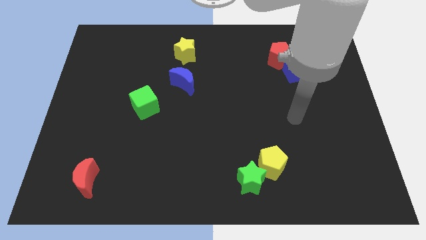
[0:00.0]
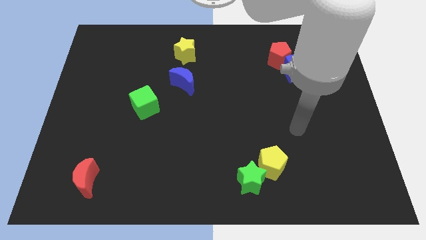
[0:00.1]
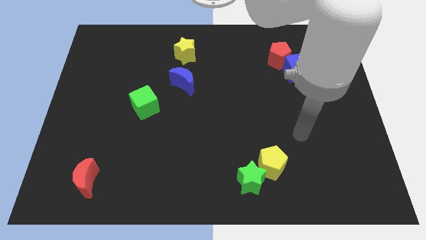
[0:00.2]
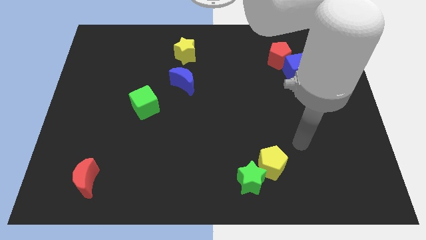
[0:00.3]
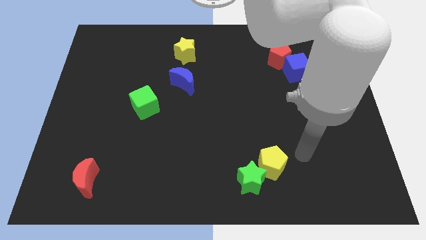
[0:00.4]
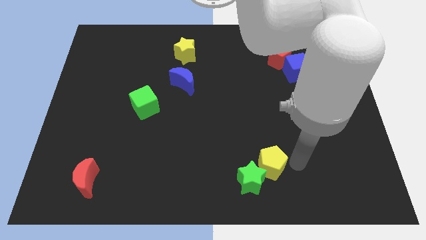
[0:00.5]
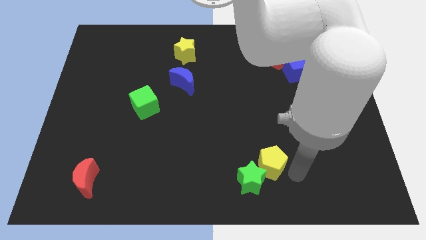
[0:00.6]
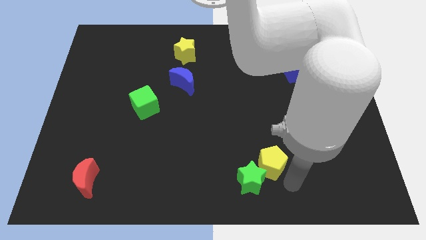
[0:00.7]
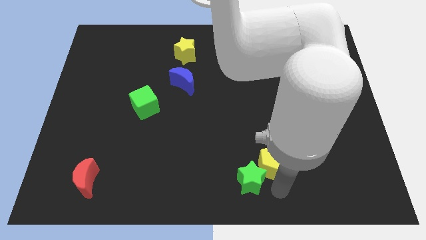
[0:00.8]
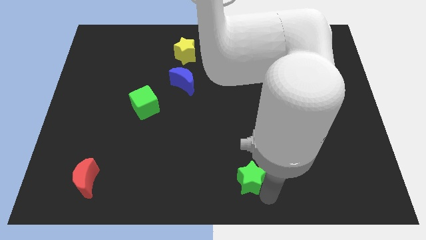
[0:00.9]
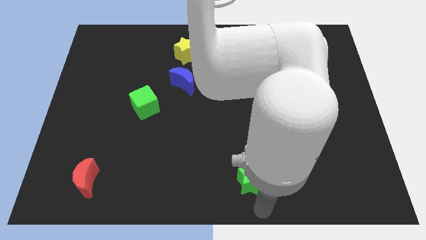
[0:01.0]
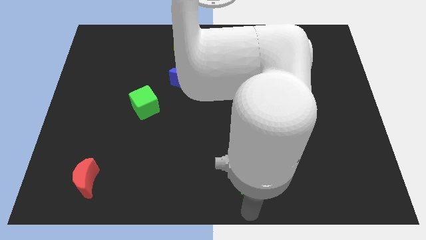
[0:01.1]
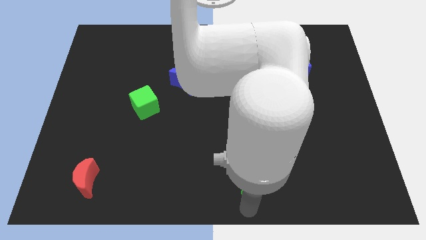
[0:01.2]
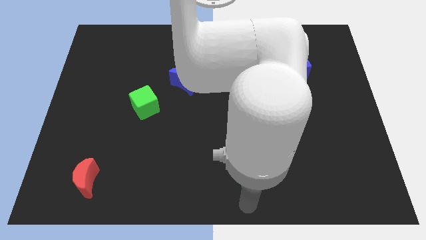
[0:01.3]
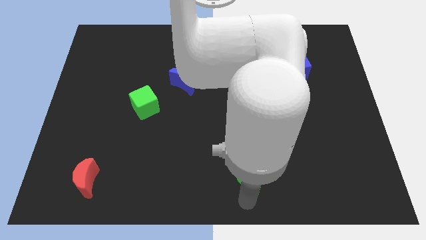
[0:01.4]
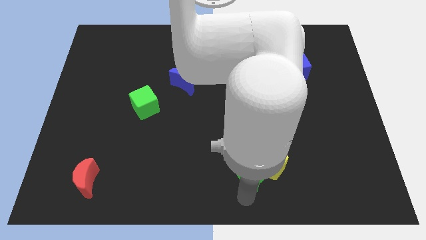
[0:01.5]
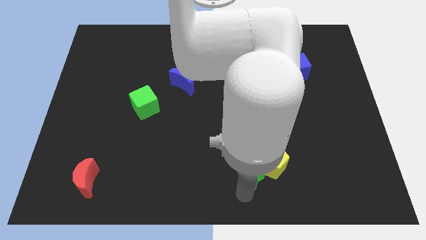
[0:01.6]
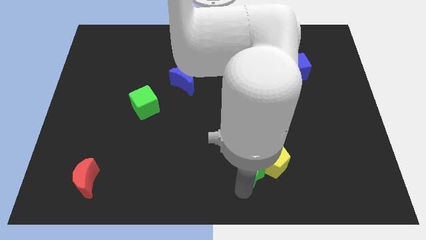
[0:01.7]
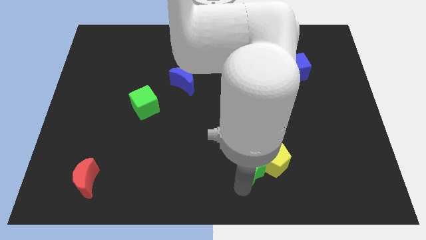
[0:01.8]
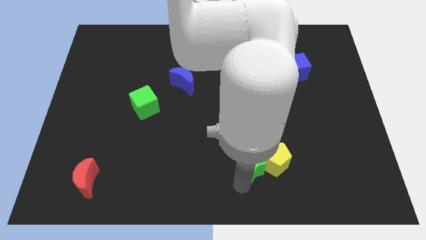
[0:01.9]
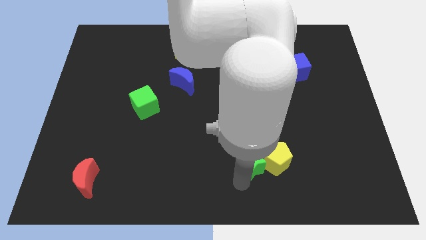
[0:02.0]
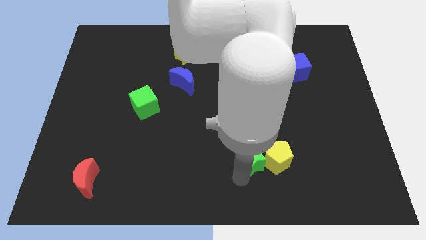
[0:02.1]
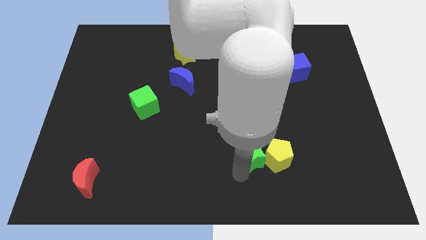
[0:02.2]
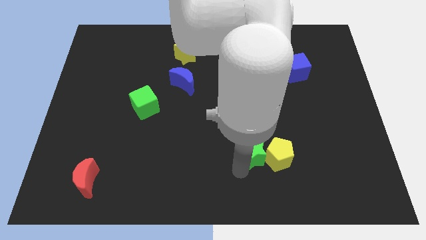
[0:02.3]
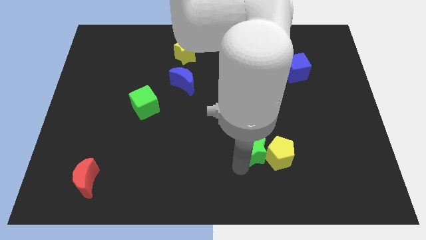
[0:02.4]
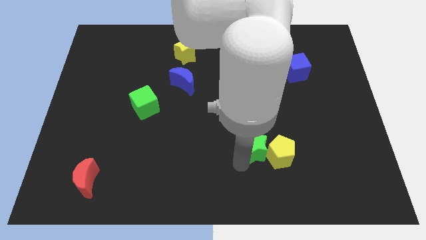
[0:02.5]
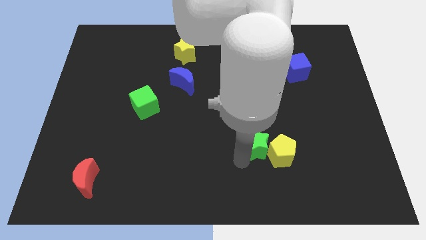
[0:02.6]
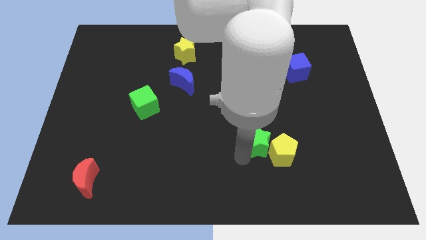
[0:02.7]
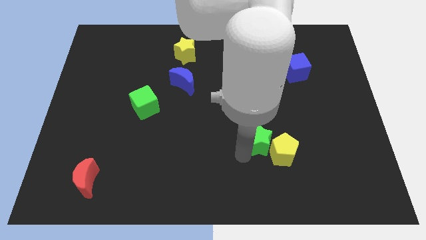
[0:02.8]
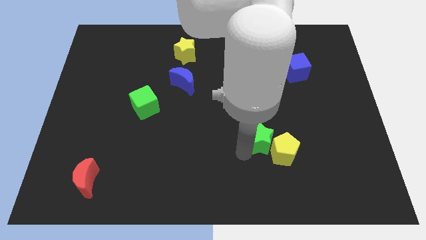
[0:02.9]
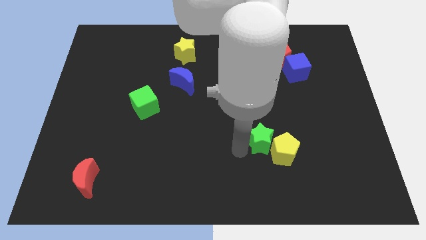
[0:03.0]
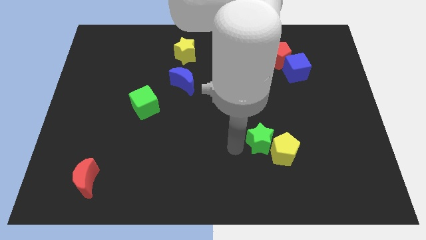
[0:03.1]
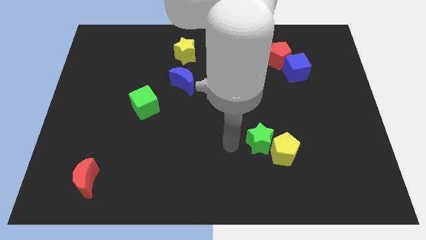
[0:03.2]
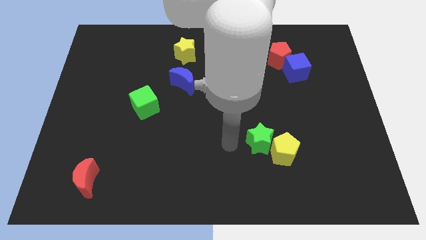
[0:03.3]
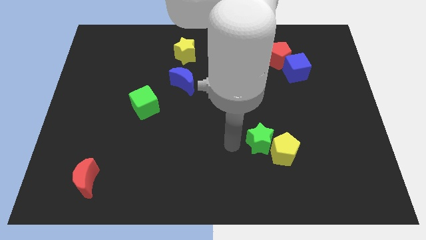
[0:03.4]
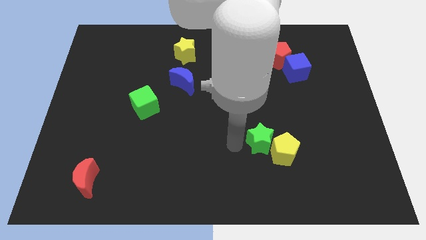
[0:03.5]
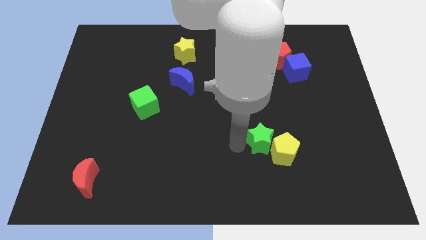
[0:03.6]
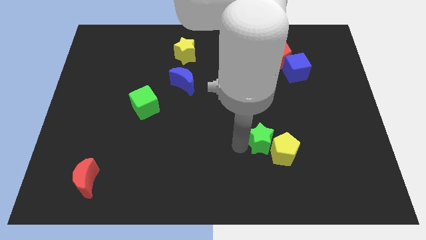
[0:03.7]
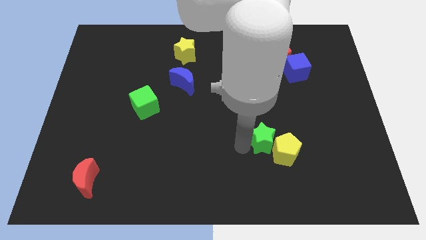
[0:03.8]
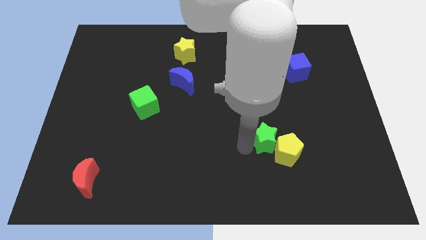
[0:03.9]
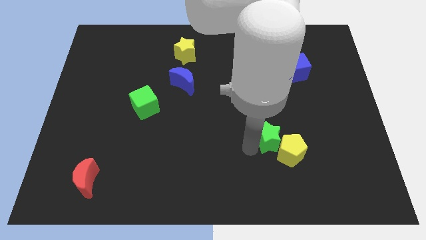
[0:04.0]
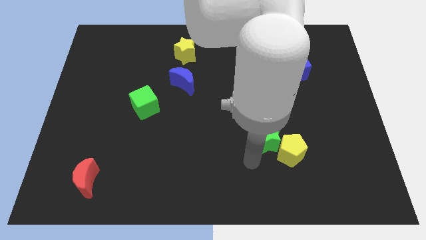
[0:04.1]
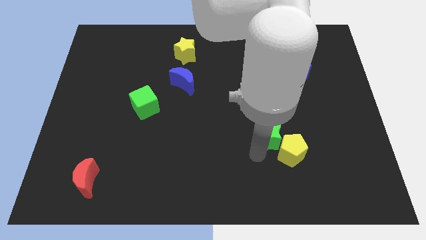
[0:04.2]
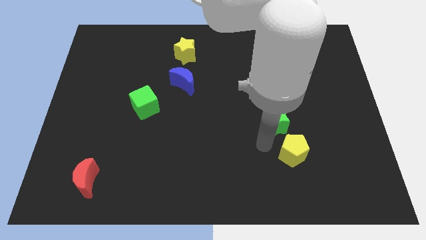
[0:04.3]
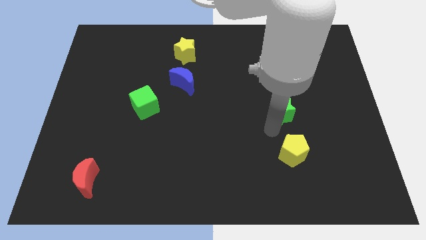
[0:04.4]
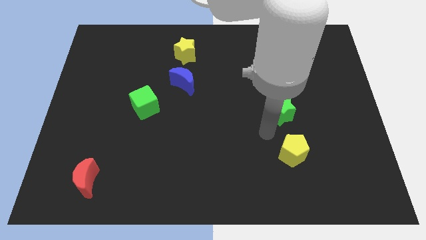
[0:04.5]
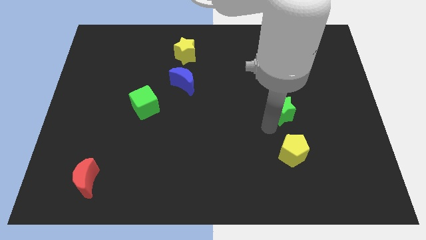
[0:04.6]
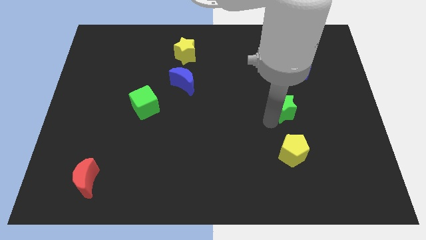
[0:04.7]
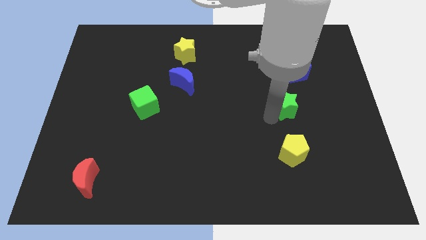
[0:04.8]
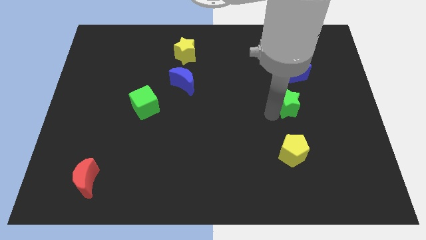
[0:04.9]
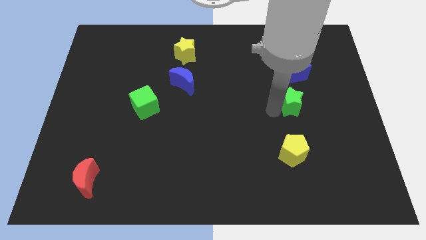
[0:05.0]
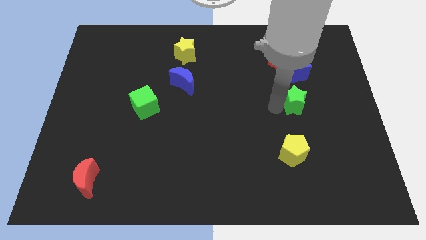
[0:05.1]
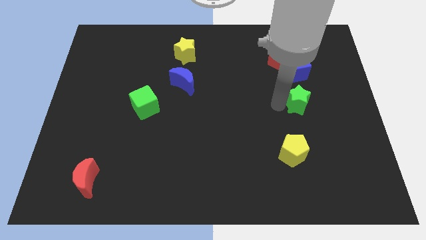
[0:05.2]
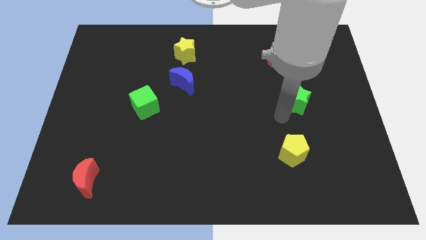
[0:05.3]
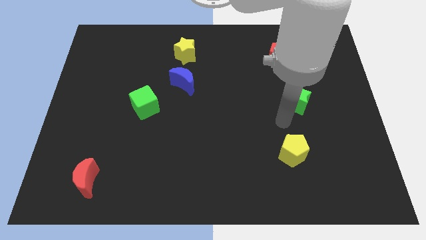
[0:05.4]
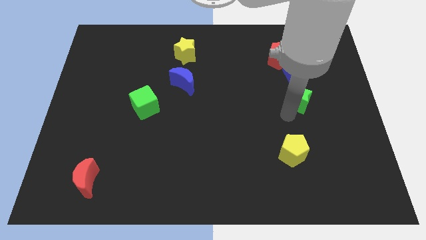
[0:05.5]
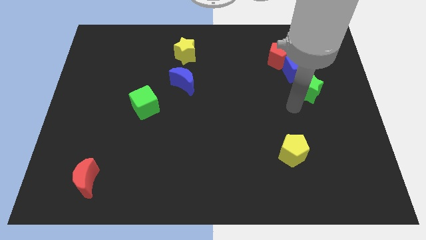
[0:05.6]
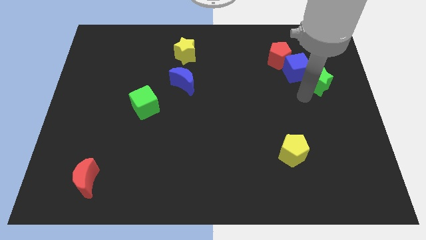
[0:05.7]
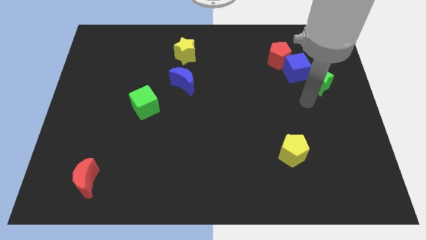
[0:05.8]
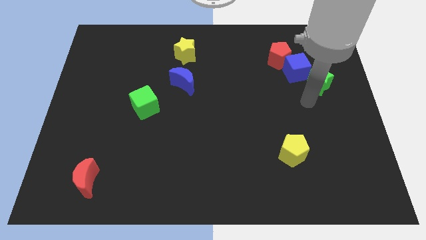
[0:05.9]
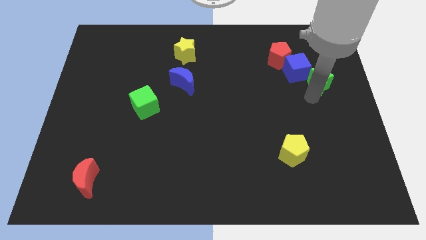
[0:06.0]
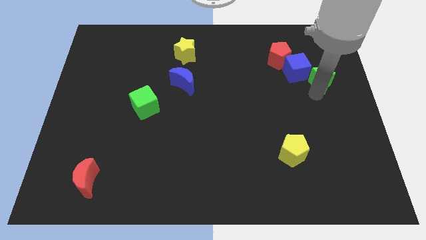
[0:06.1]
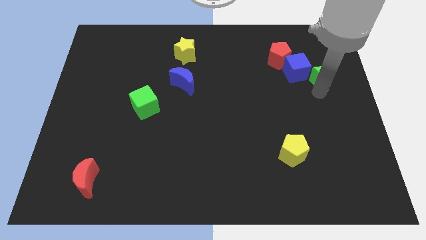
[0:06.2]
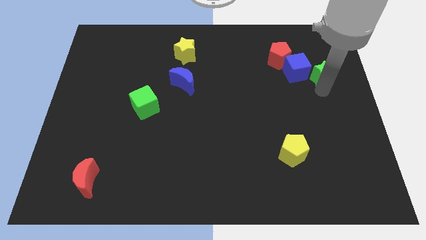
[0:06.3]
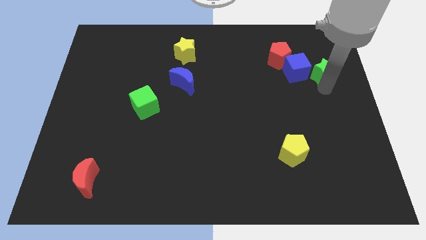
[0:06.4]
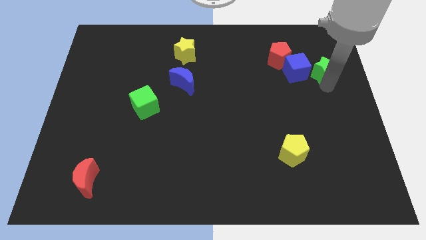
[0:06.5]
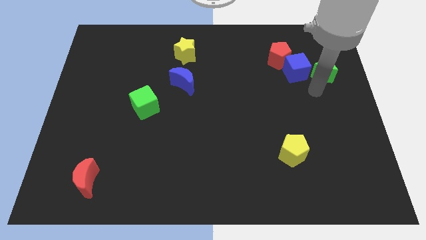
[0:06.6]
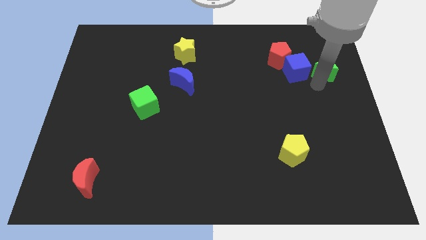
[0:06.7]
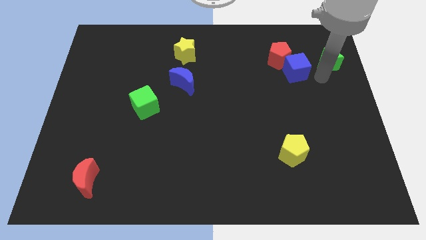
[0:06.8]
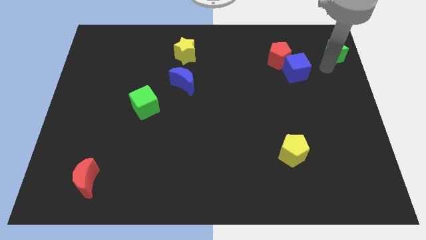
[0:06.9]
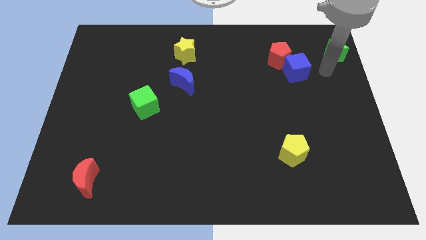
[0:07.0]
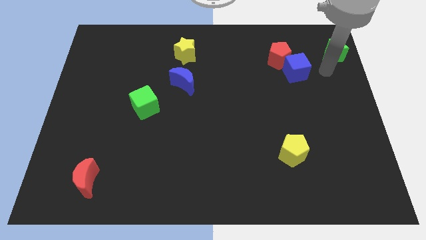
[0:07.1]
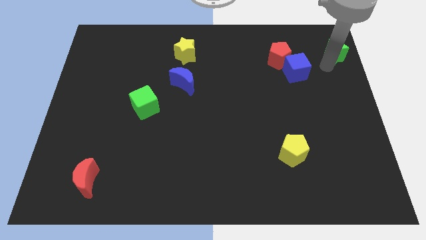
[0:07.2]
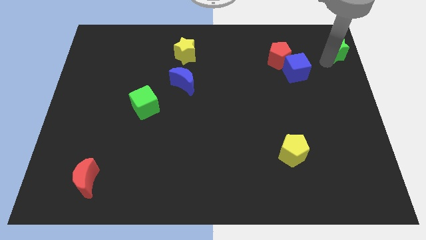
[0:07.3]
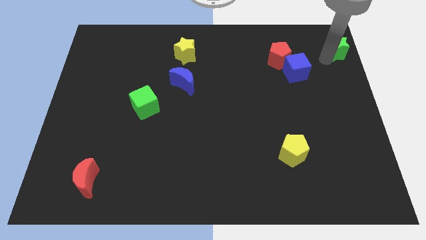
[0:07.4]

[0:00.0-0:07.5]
push the green star to the top right
